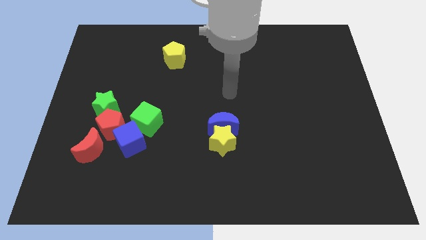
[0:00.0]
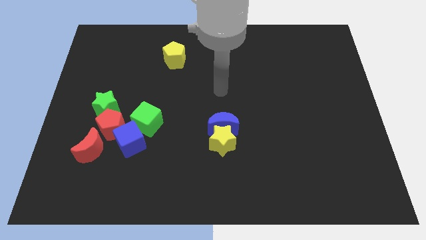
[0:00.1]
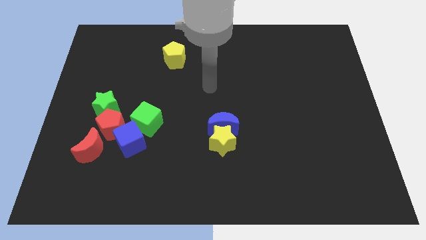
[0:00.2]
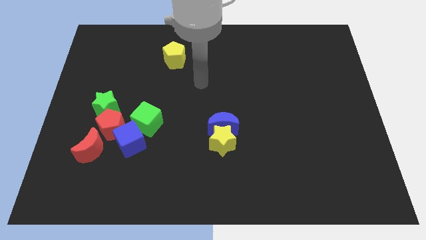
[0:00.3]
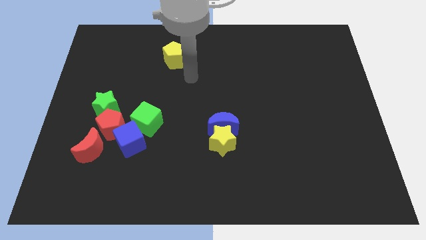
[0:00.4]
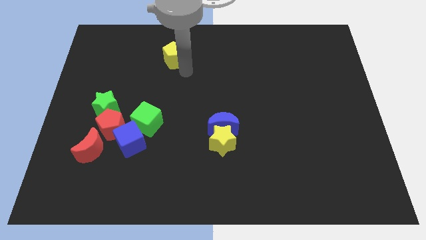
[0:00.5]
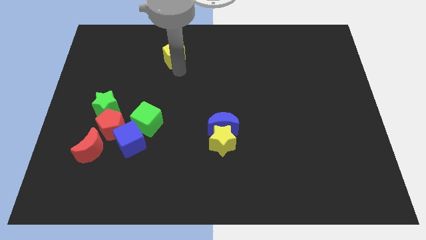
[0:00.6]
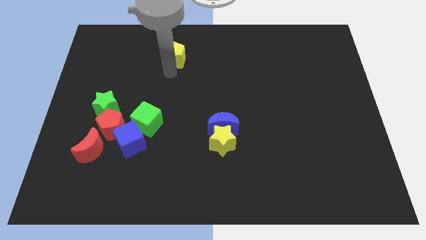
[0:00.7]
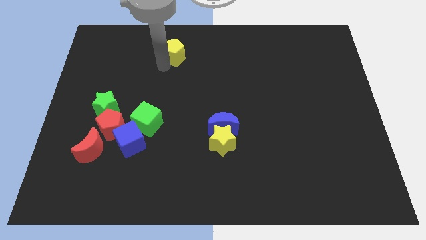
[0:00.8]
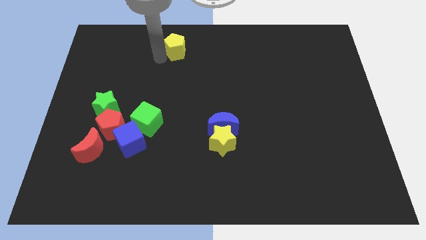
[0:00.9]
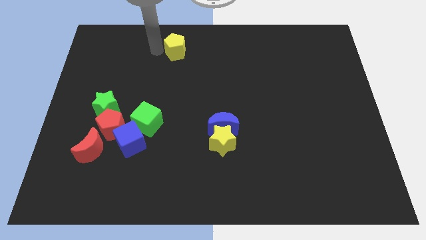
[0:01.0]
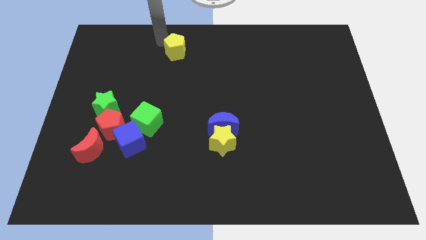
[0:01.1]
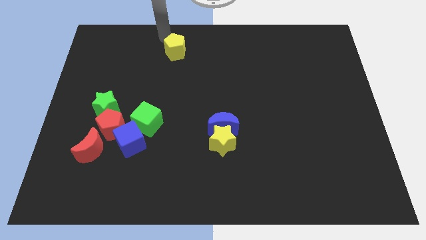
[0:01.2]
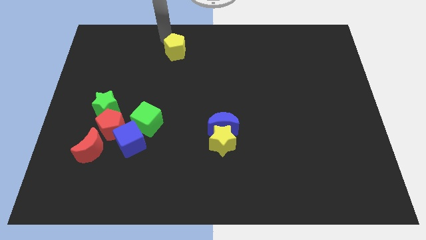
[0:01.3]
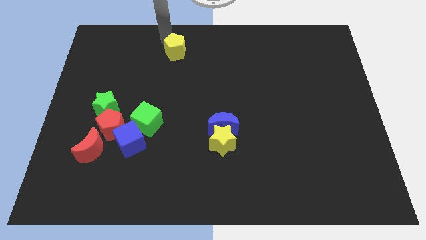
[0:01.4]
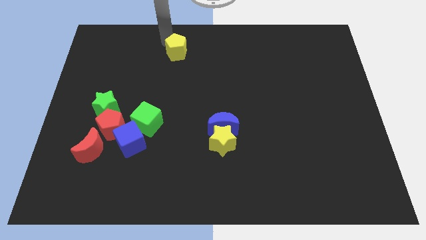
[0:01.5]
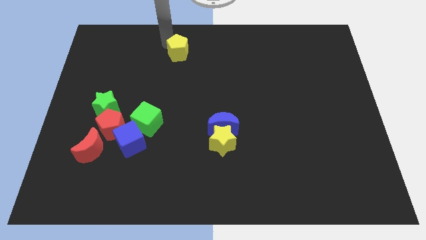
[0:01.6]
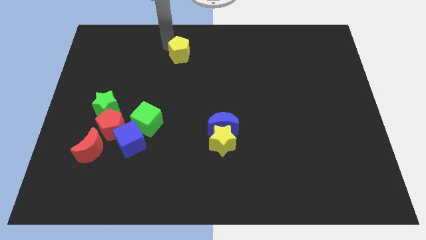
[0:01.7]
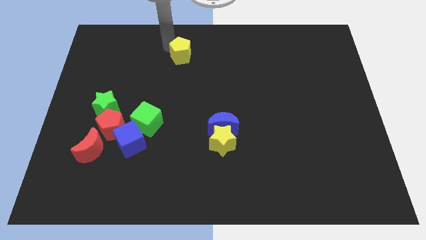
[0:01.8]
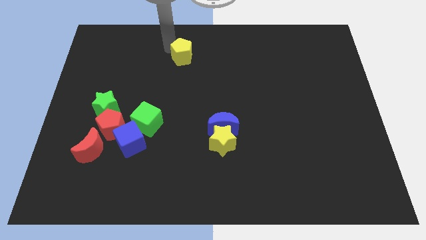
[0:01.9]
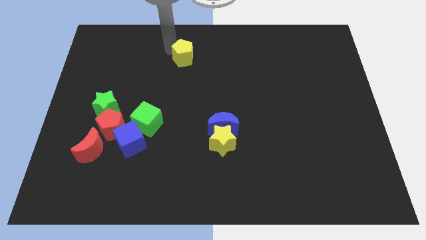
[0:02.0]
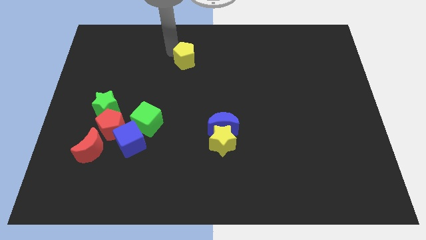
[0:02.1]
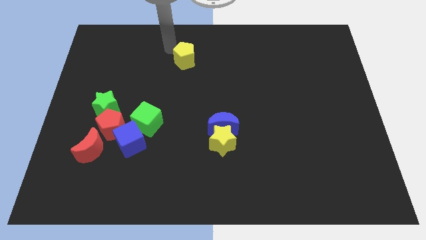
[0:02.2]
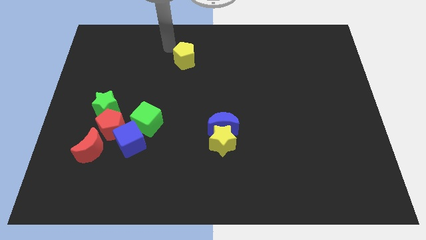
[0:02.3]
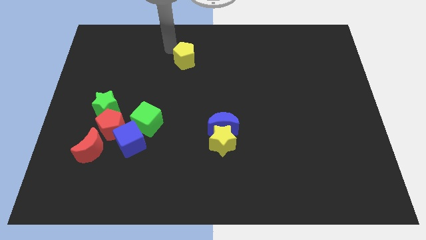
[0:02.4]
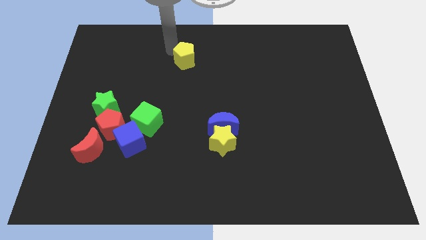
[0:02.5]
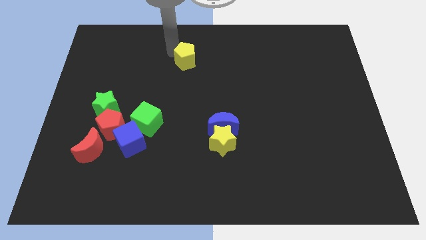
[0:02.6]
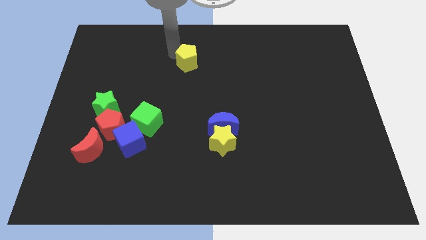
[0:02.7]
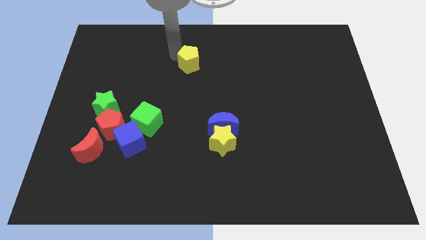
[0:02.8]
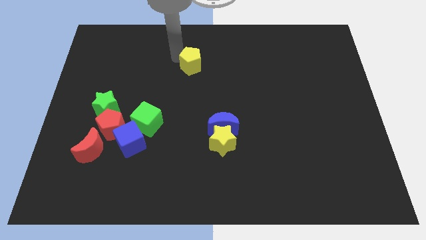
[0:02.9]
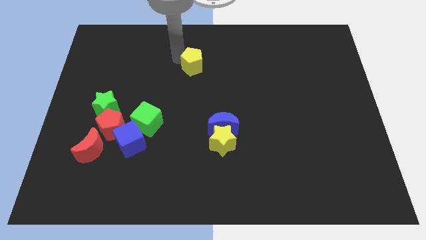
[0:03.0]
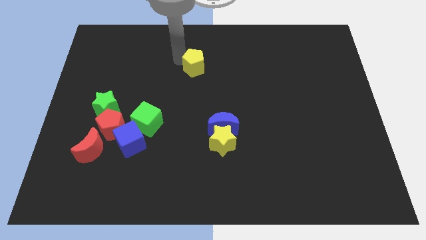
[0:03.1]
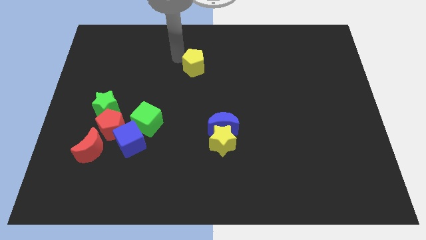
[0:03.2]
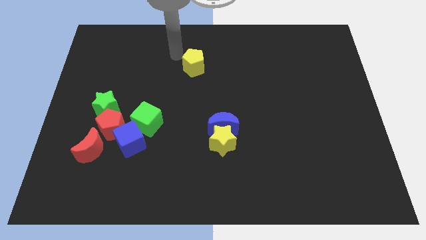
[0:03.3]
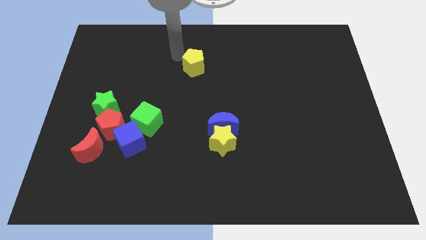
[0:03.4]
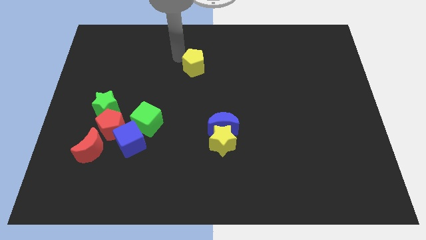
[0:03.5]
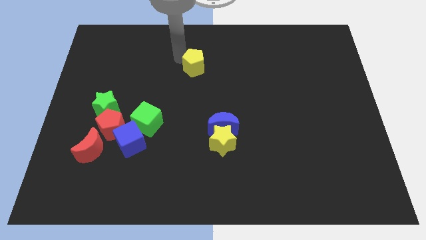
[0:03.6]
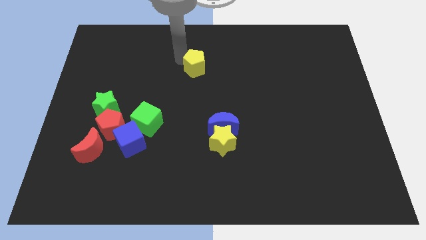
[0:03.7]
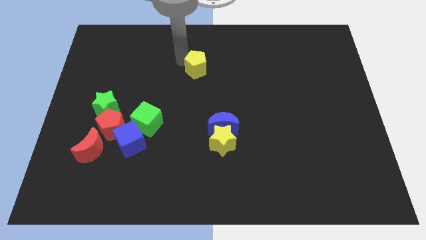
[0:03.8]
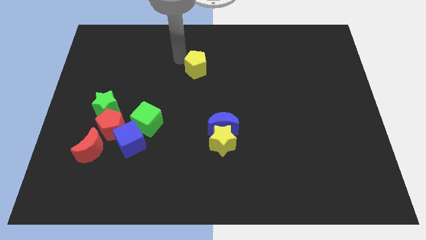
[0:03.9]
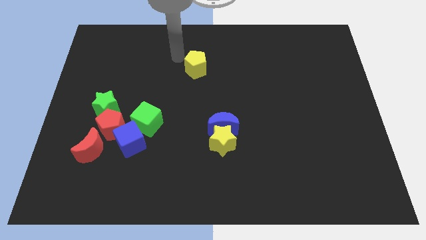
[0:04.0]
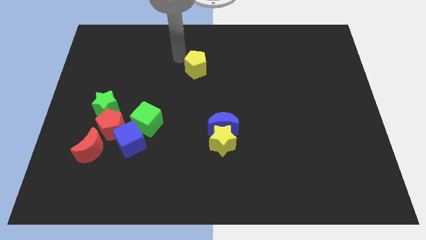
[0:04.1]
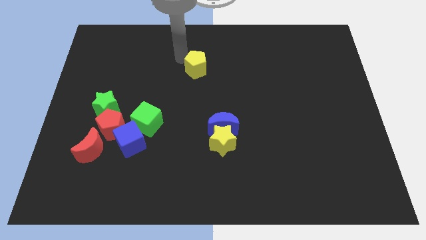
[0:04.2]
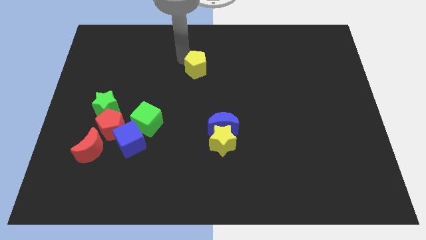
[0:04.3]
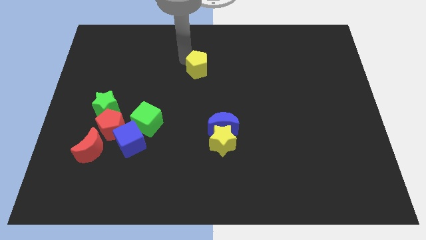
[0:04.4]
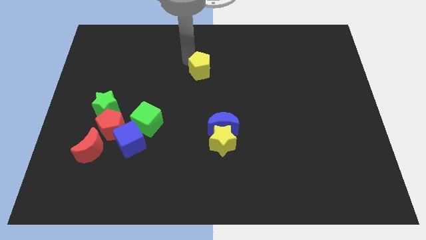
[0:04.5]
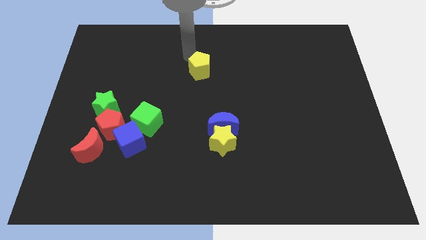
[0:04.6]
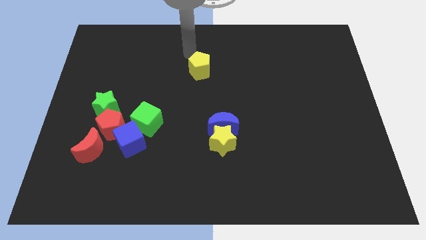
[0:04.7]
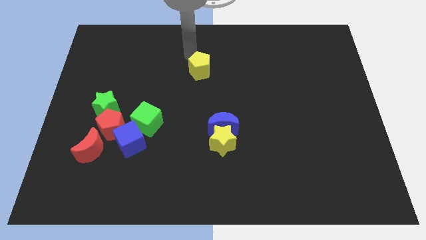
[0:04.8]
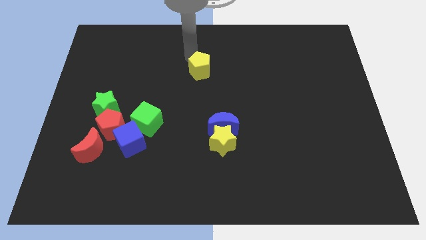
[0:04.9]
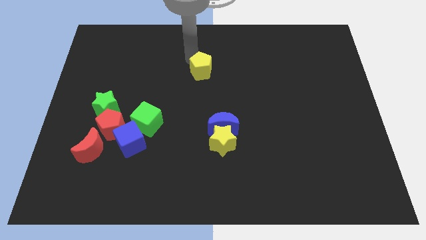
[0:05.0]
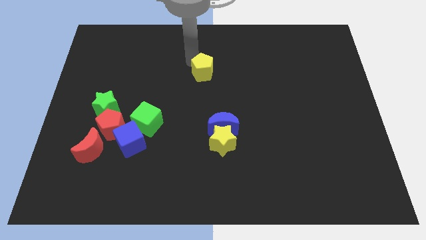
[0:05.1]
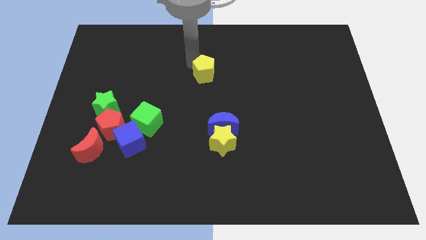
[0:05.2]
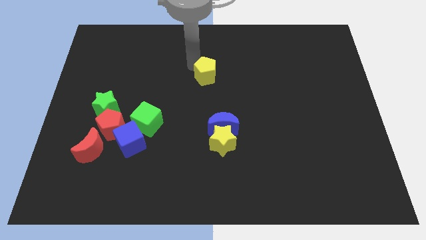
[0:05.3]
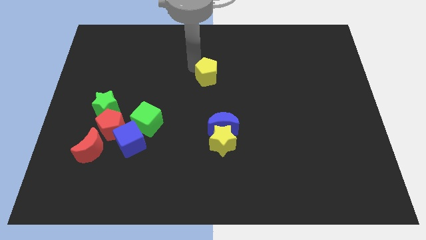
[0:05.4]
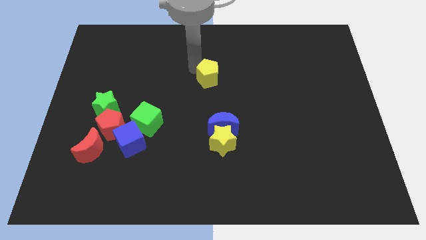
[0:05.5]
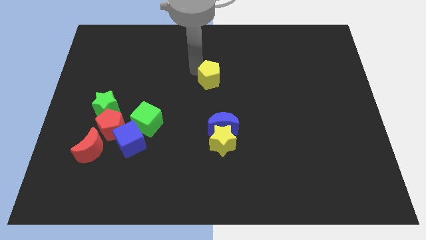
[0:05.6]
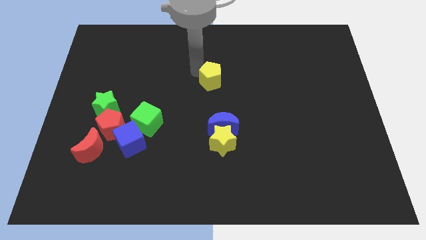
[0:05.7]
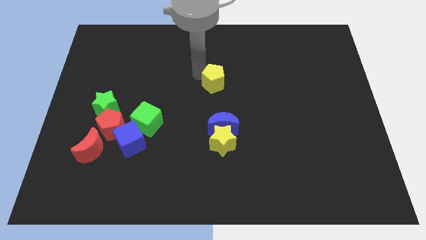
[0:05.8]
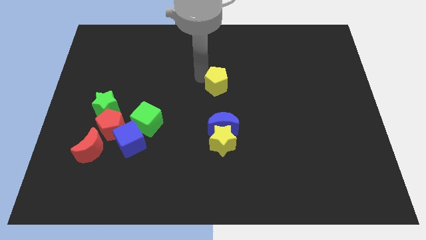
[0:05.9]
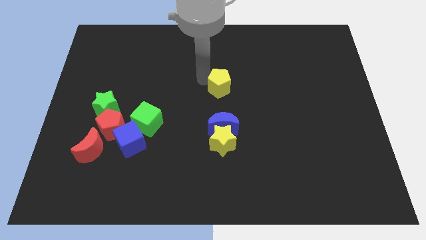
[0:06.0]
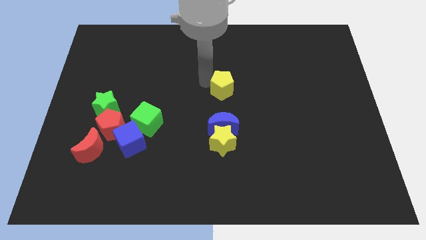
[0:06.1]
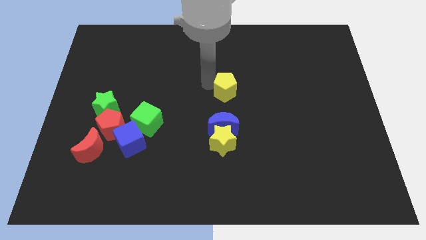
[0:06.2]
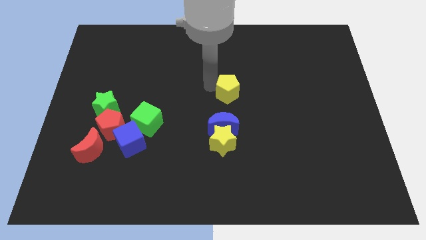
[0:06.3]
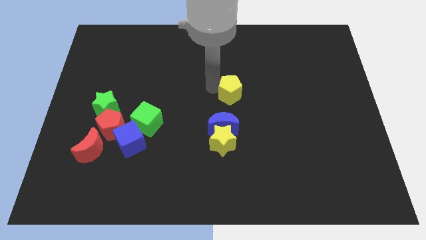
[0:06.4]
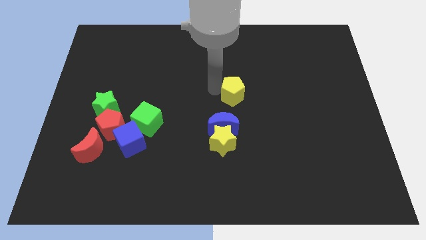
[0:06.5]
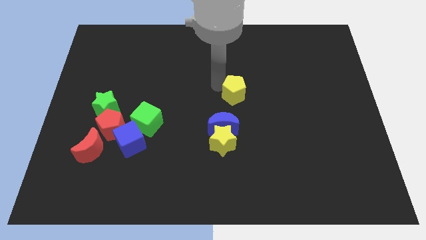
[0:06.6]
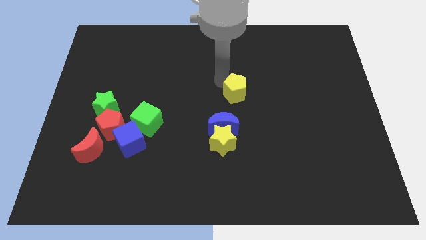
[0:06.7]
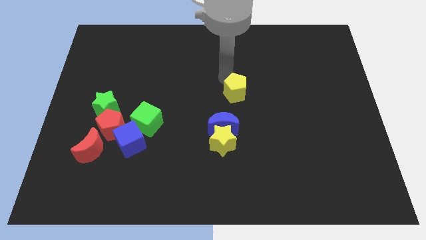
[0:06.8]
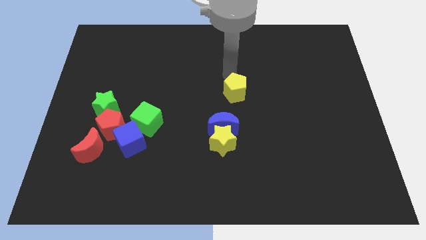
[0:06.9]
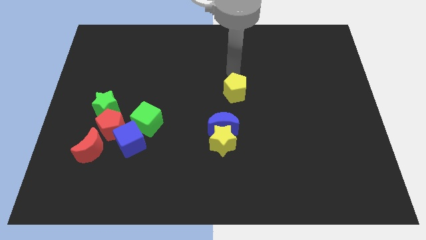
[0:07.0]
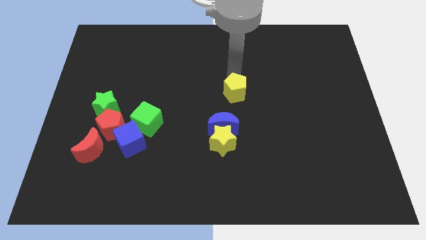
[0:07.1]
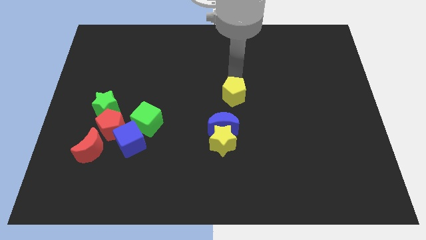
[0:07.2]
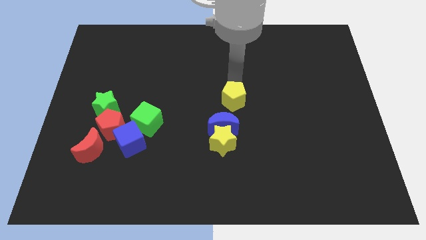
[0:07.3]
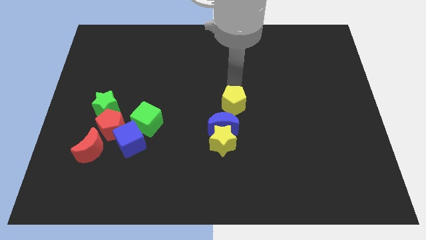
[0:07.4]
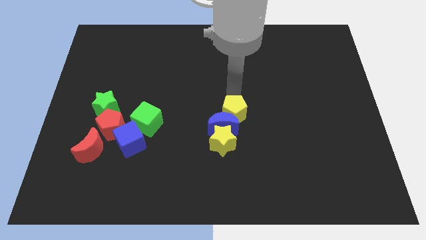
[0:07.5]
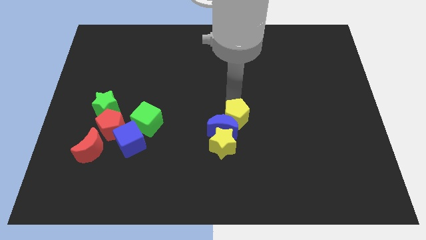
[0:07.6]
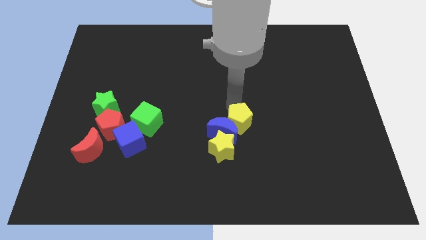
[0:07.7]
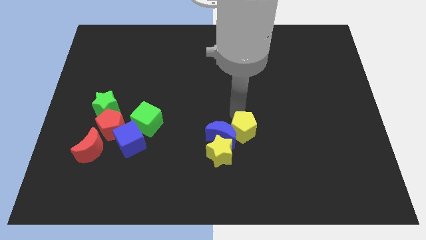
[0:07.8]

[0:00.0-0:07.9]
put the yellow pentagon diagonally down and to the right of the blue moon
